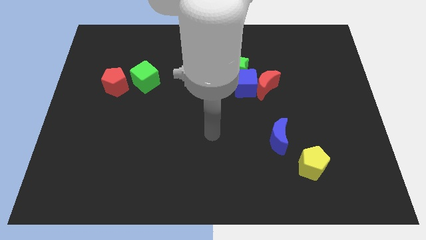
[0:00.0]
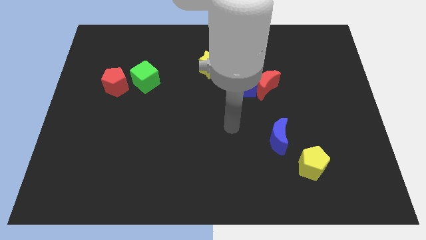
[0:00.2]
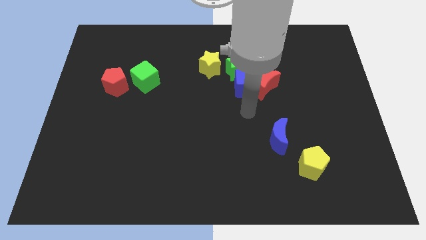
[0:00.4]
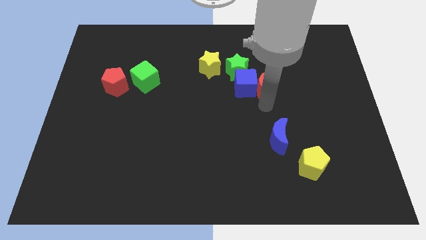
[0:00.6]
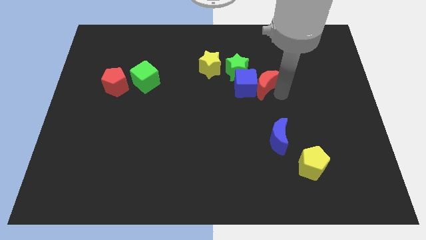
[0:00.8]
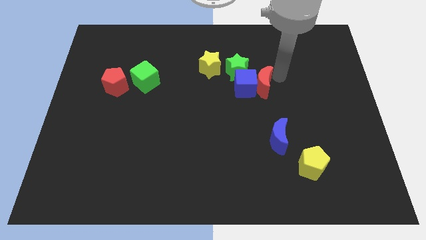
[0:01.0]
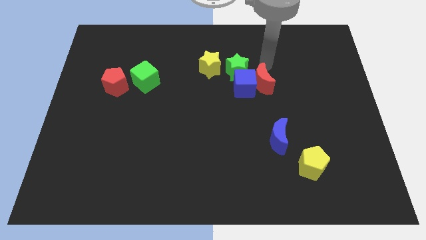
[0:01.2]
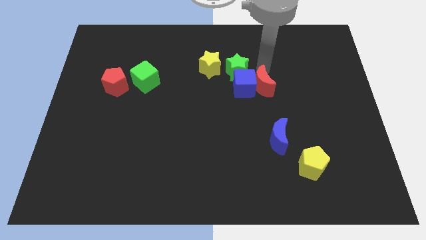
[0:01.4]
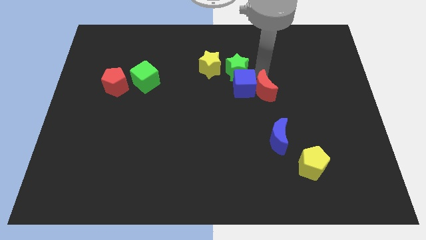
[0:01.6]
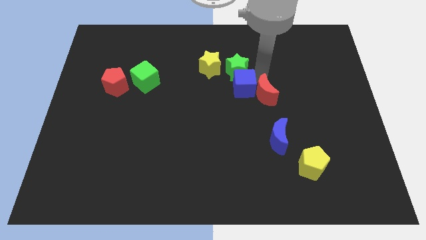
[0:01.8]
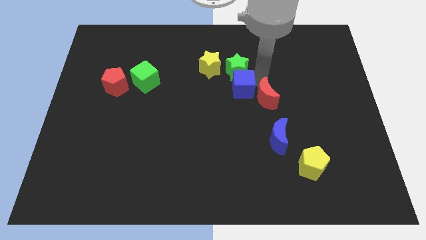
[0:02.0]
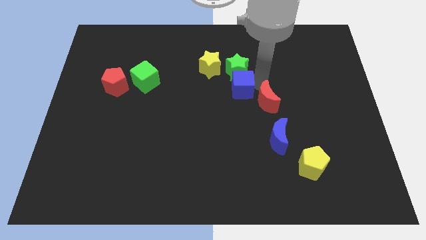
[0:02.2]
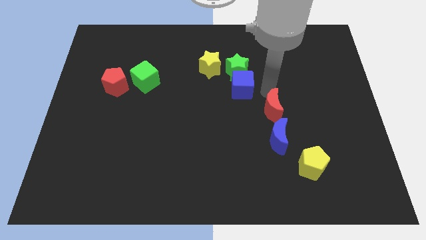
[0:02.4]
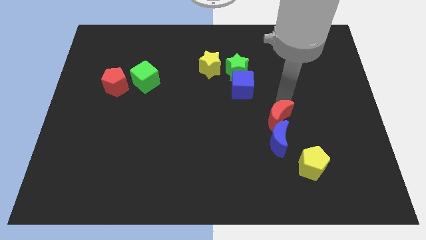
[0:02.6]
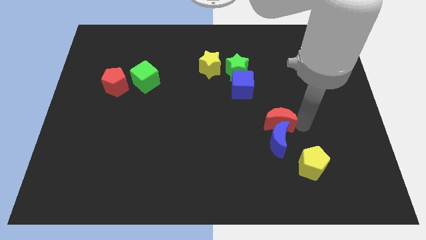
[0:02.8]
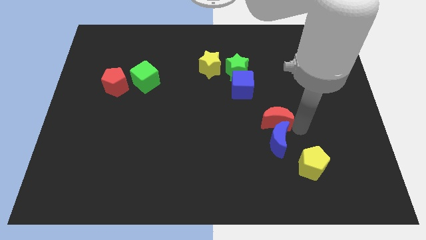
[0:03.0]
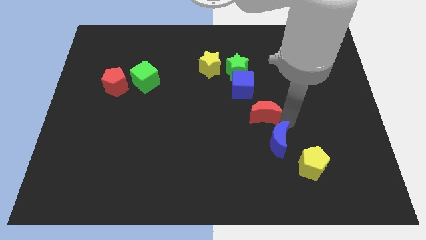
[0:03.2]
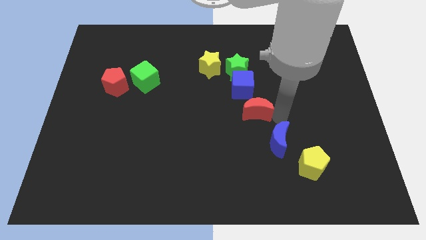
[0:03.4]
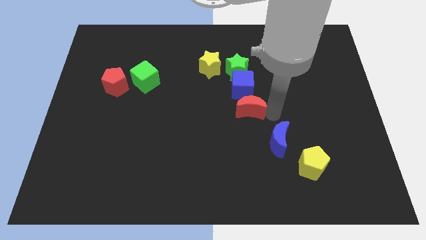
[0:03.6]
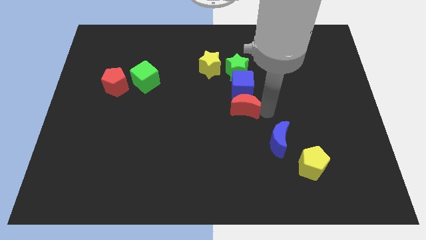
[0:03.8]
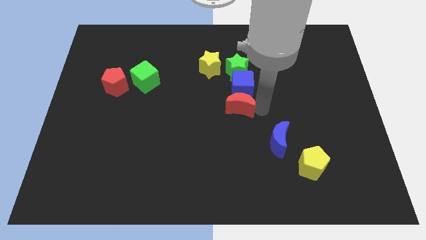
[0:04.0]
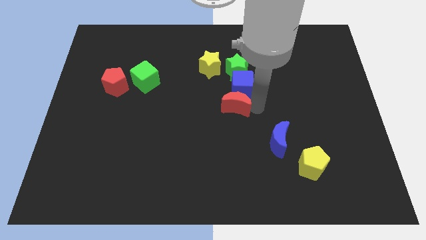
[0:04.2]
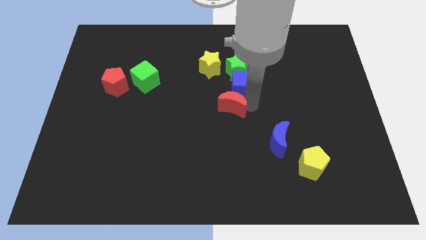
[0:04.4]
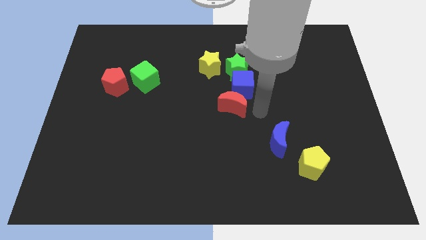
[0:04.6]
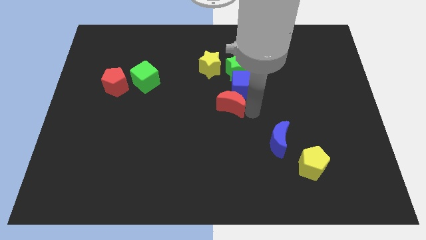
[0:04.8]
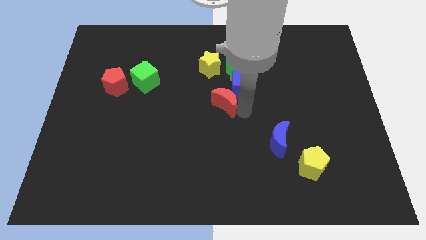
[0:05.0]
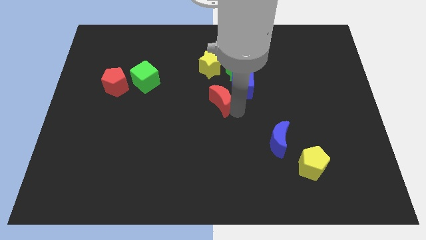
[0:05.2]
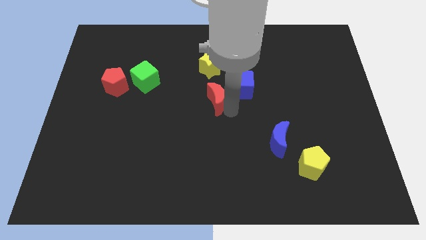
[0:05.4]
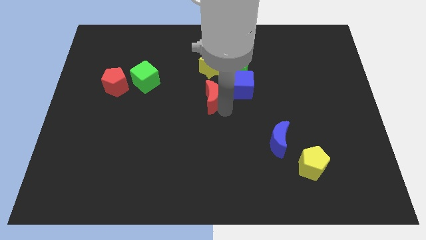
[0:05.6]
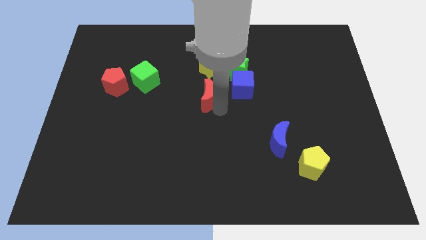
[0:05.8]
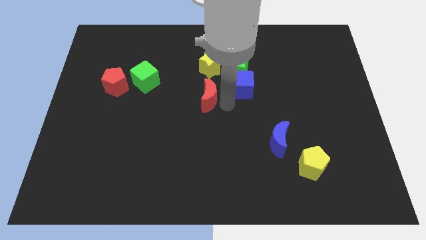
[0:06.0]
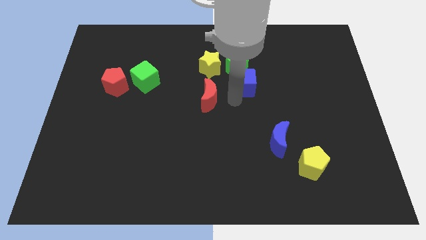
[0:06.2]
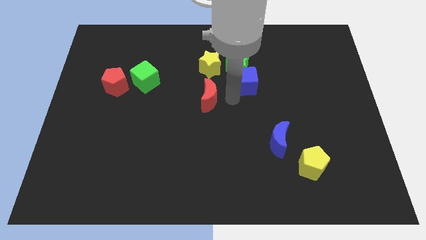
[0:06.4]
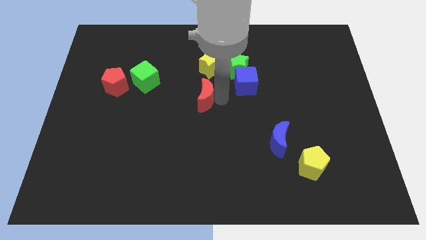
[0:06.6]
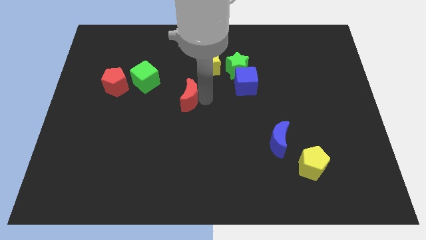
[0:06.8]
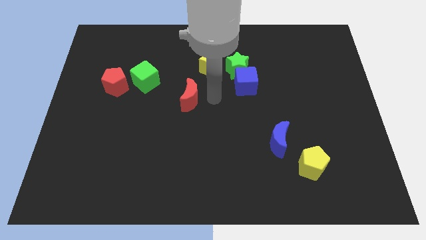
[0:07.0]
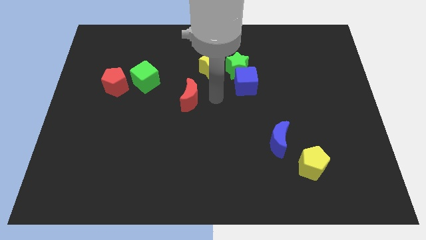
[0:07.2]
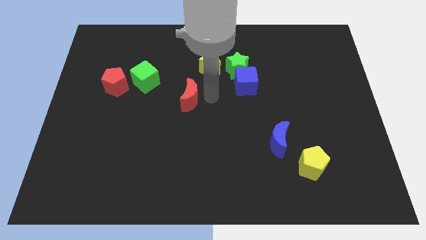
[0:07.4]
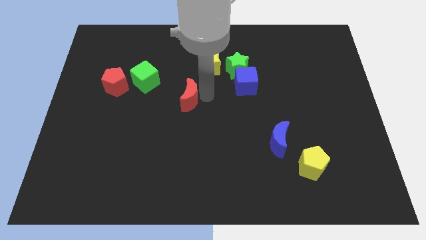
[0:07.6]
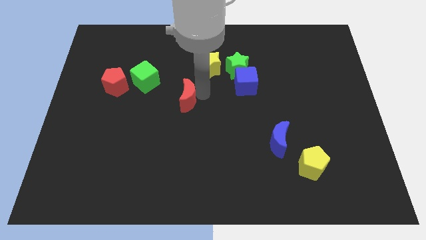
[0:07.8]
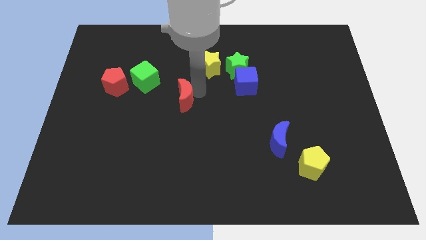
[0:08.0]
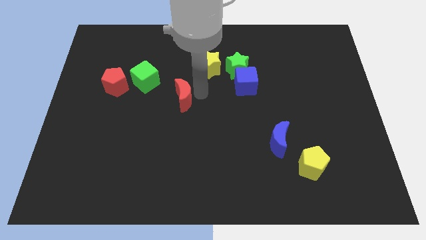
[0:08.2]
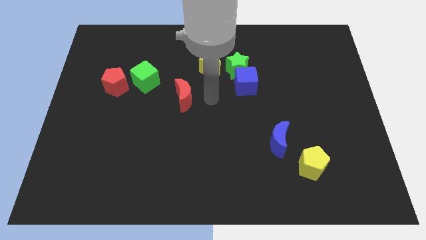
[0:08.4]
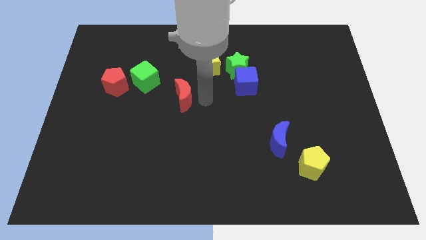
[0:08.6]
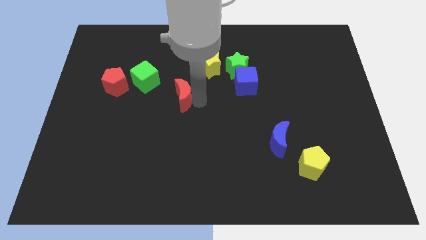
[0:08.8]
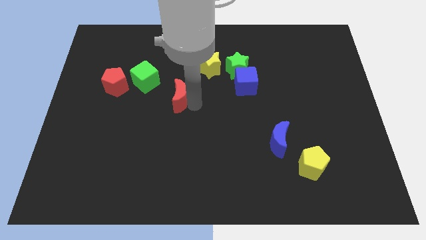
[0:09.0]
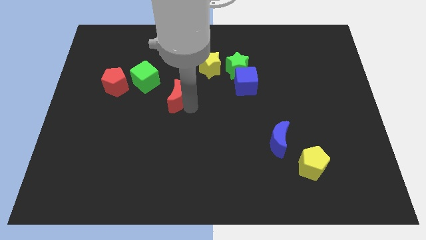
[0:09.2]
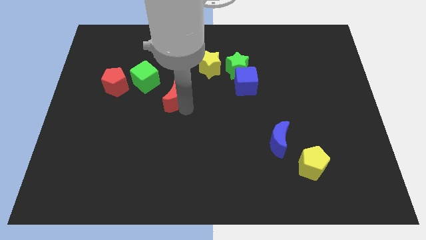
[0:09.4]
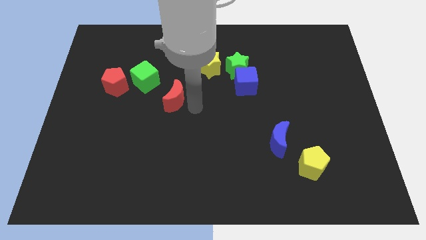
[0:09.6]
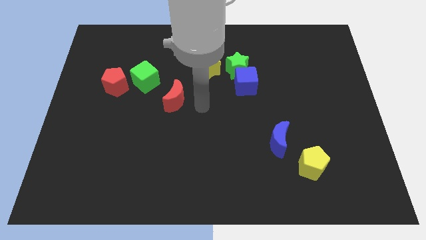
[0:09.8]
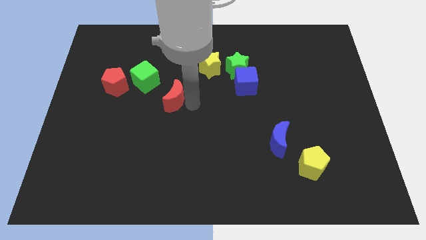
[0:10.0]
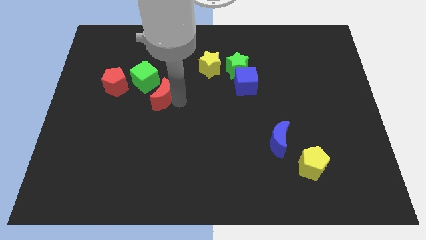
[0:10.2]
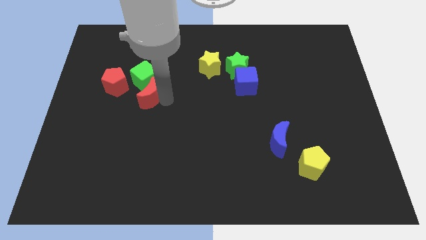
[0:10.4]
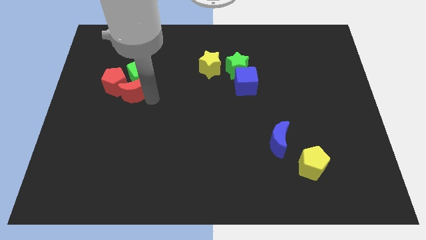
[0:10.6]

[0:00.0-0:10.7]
move the red moon close to the red pentagon

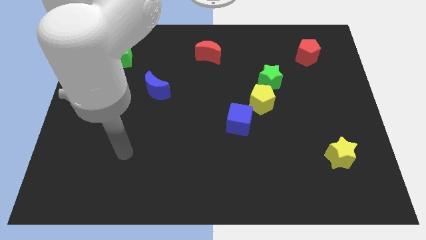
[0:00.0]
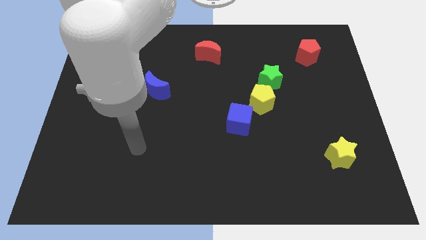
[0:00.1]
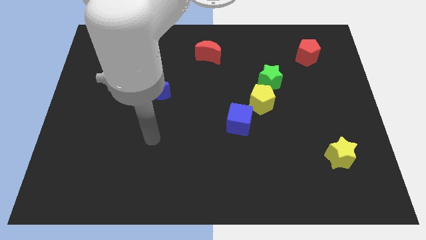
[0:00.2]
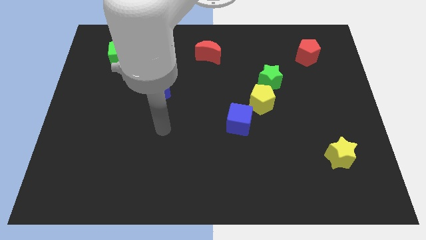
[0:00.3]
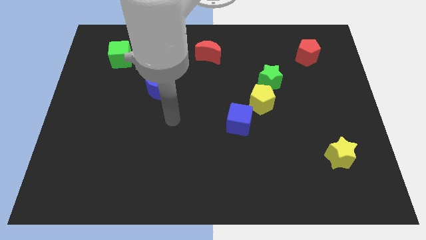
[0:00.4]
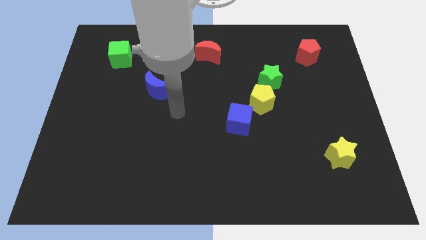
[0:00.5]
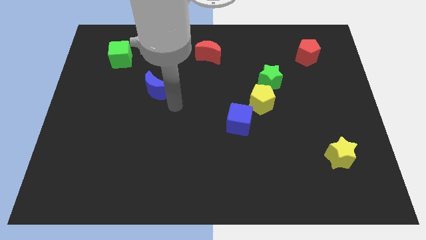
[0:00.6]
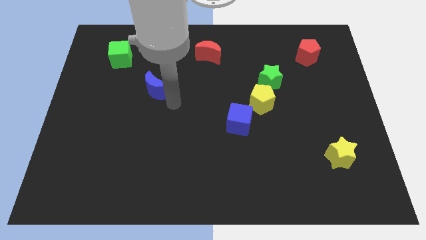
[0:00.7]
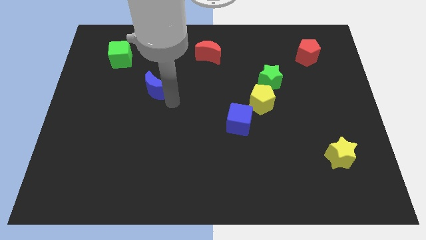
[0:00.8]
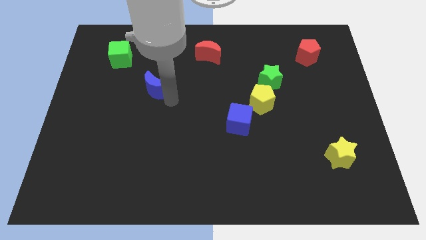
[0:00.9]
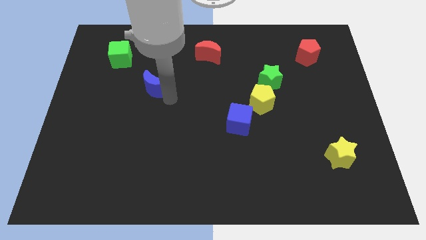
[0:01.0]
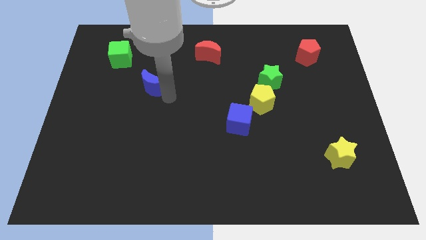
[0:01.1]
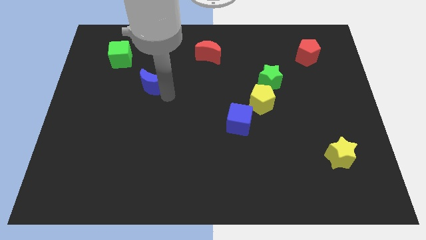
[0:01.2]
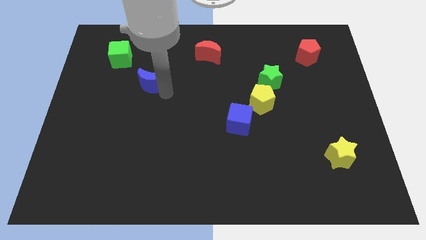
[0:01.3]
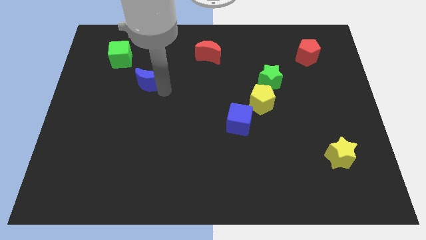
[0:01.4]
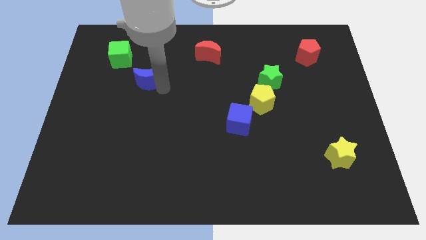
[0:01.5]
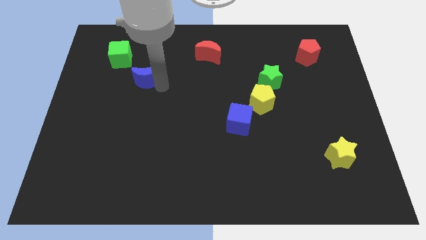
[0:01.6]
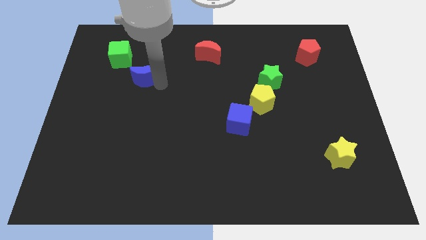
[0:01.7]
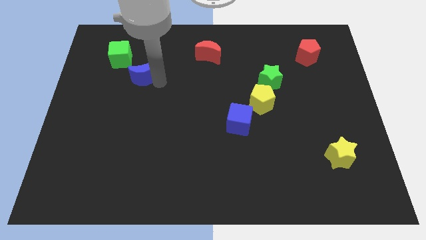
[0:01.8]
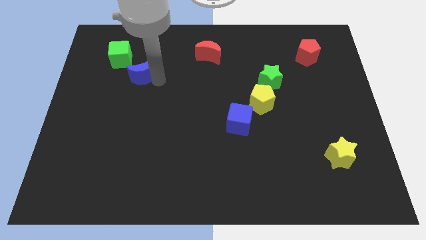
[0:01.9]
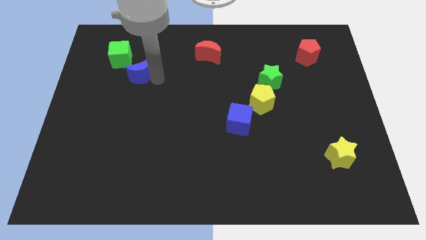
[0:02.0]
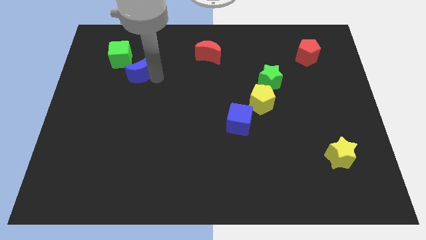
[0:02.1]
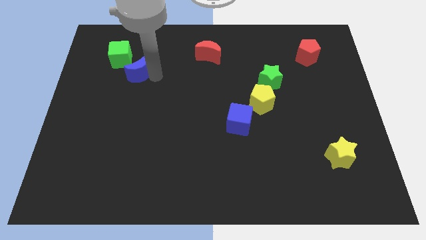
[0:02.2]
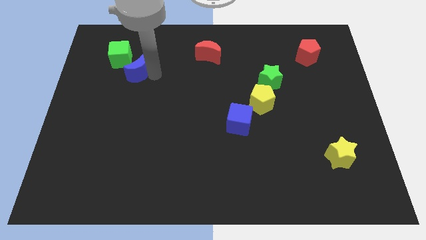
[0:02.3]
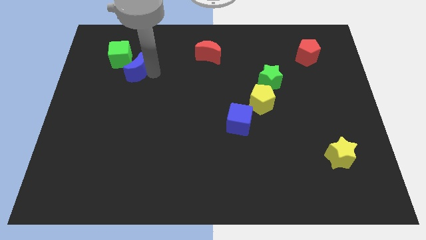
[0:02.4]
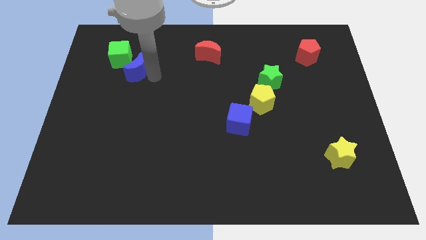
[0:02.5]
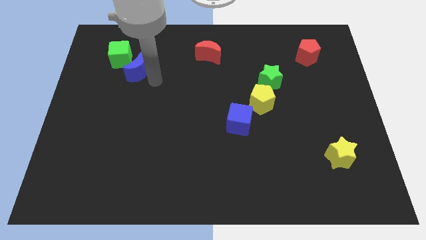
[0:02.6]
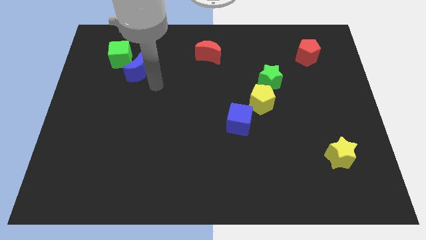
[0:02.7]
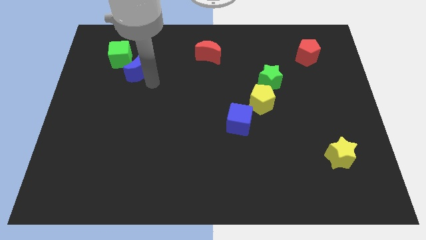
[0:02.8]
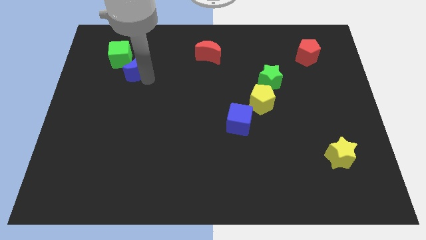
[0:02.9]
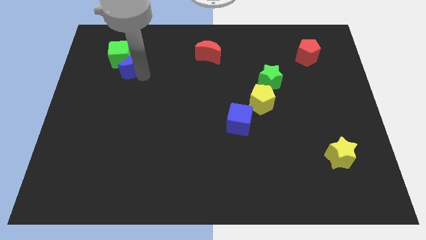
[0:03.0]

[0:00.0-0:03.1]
push the blue moon towards the green cube
